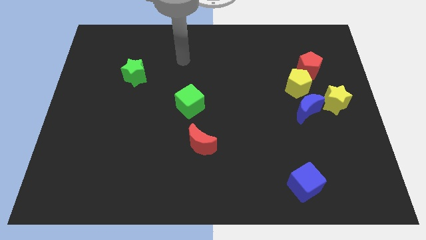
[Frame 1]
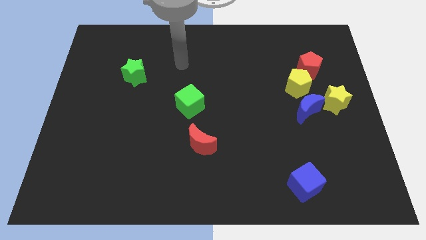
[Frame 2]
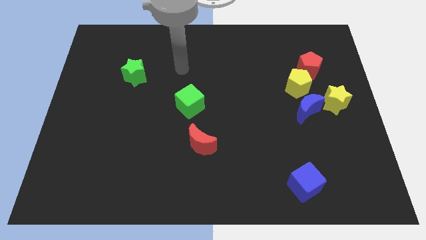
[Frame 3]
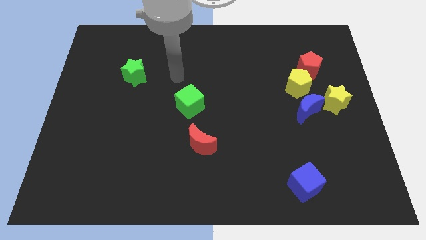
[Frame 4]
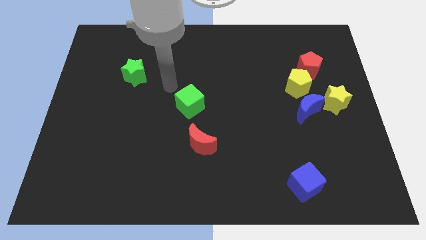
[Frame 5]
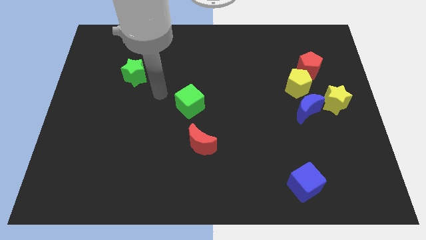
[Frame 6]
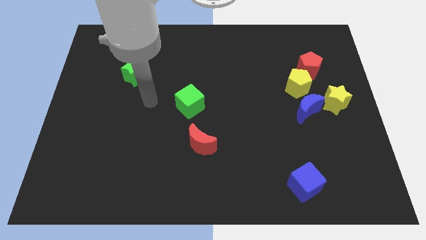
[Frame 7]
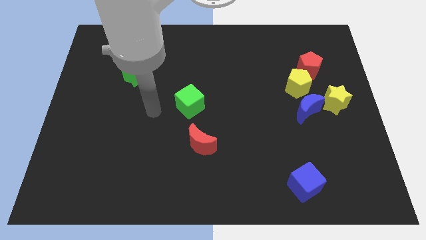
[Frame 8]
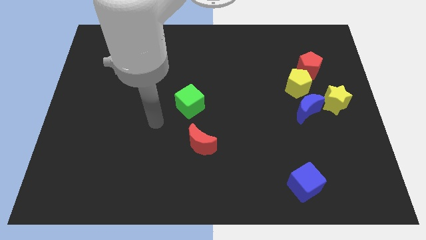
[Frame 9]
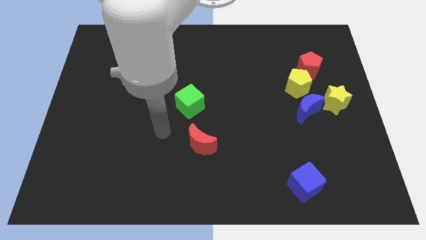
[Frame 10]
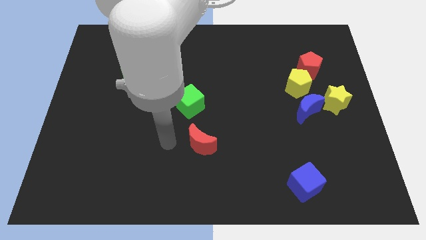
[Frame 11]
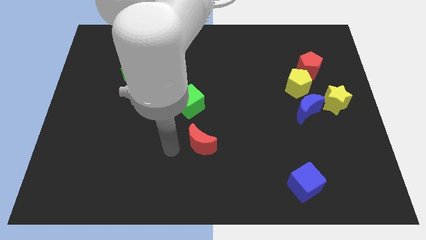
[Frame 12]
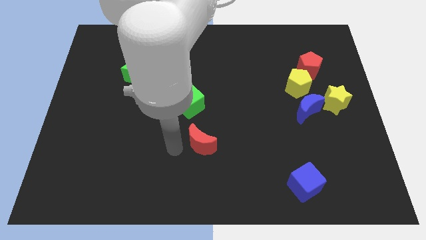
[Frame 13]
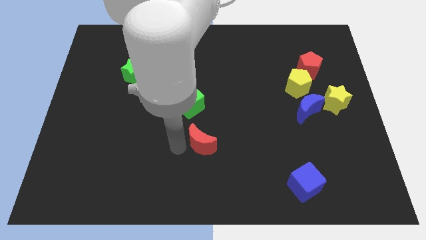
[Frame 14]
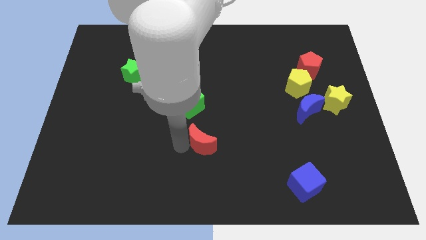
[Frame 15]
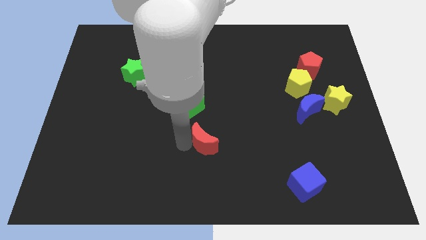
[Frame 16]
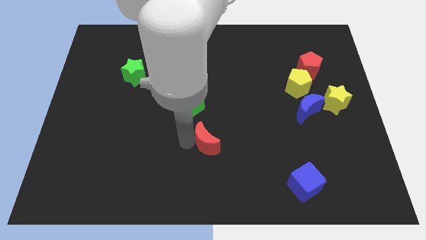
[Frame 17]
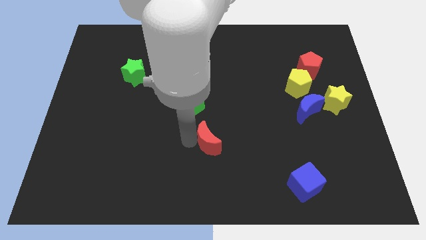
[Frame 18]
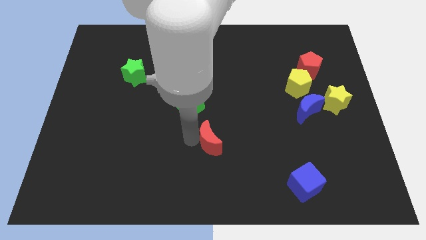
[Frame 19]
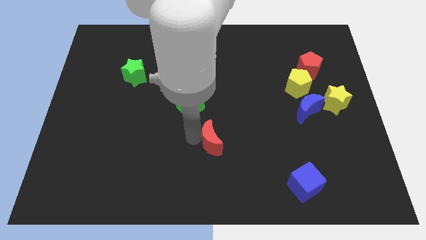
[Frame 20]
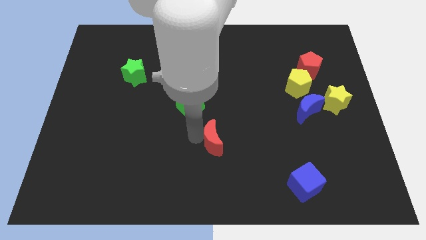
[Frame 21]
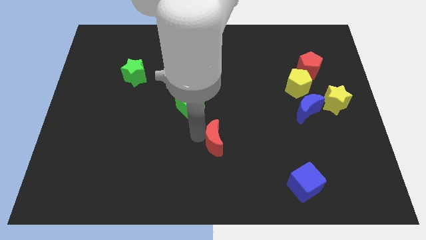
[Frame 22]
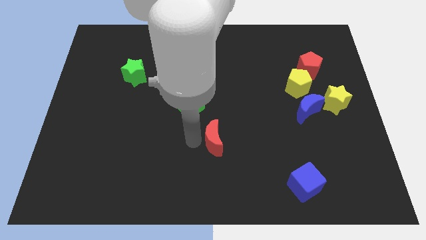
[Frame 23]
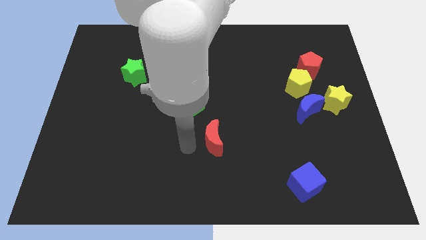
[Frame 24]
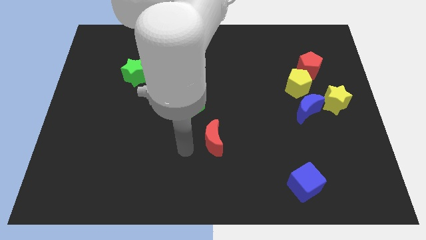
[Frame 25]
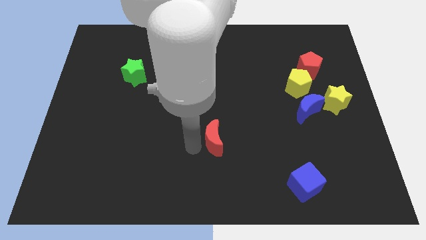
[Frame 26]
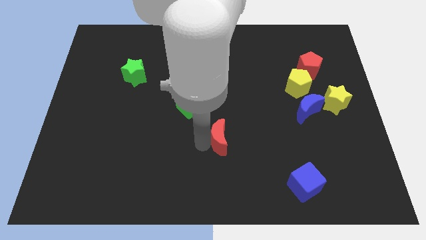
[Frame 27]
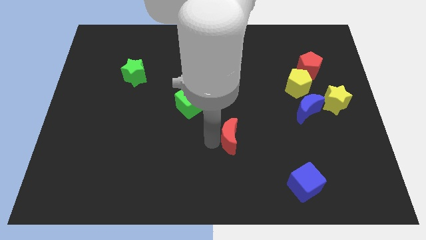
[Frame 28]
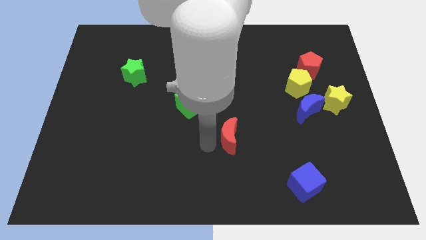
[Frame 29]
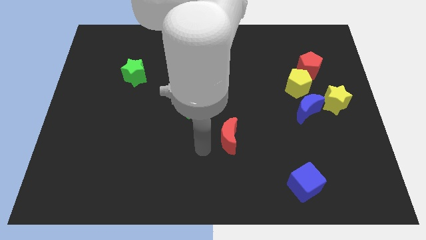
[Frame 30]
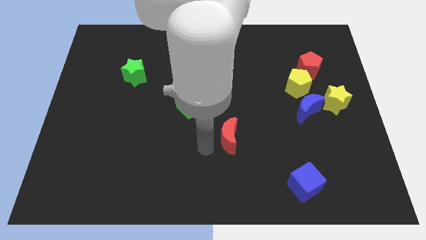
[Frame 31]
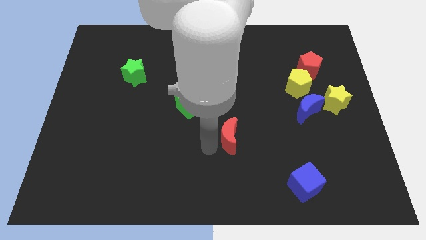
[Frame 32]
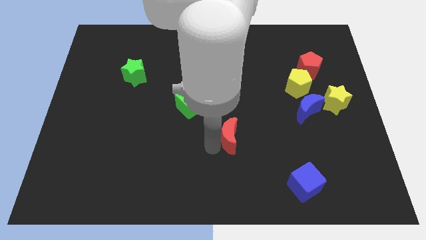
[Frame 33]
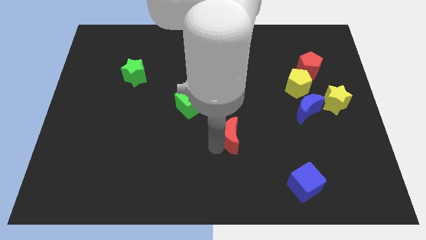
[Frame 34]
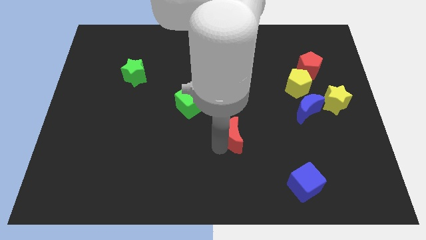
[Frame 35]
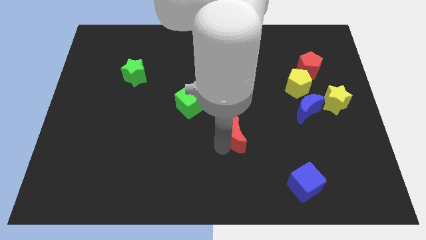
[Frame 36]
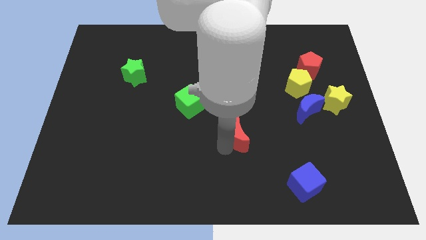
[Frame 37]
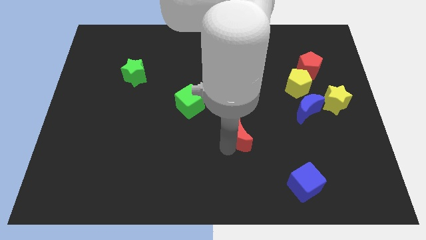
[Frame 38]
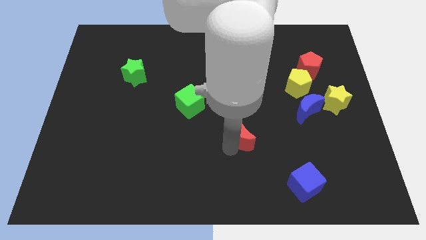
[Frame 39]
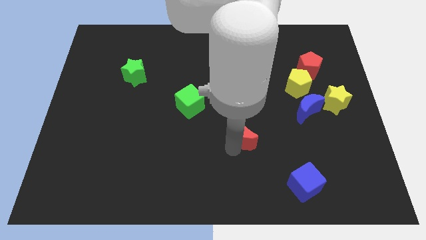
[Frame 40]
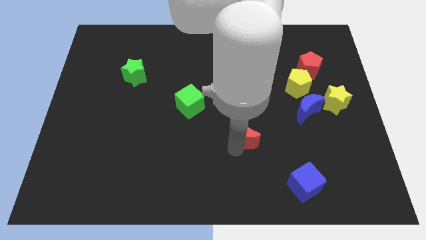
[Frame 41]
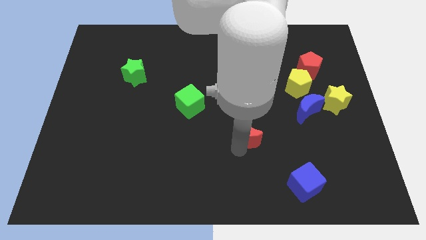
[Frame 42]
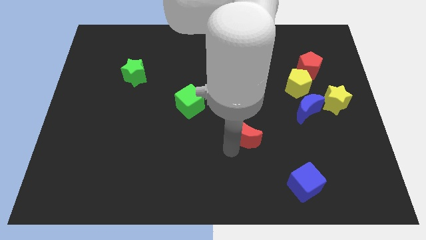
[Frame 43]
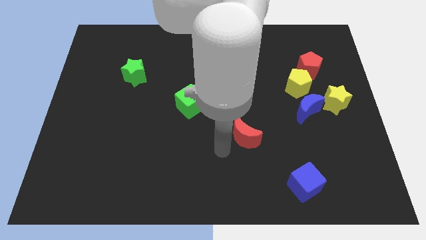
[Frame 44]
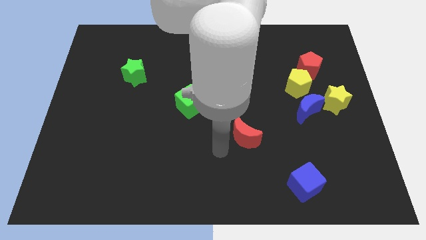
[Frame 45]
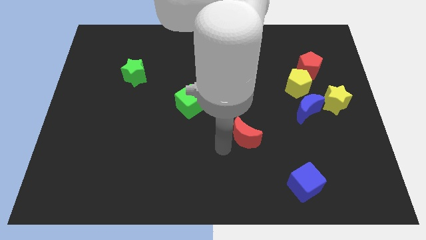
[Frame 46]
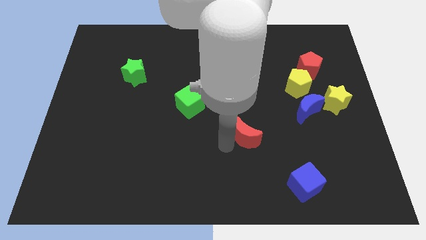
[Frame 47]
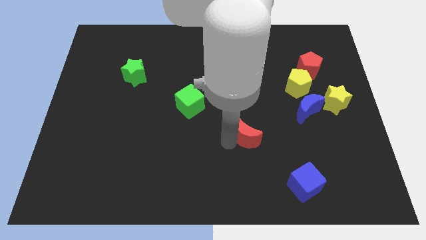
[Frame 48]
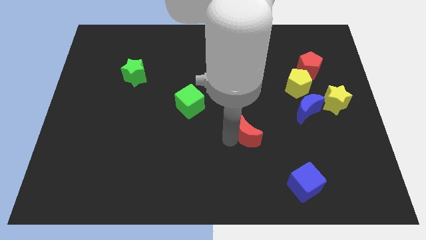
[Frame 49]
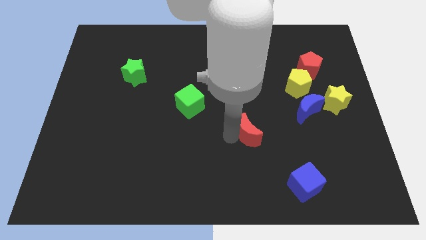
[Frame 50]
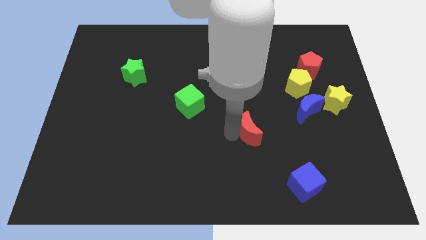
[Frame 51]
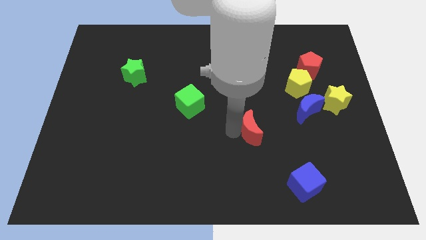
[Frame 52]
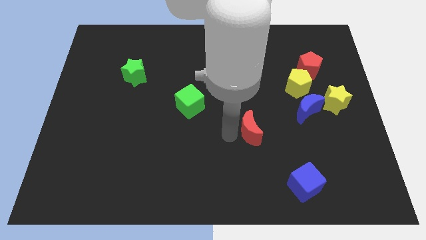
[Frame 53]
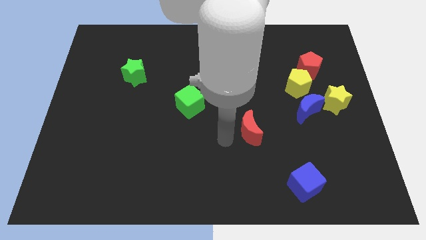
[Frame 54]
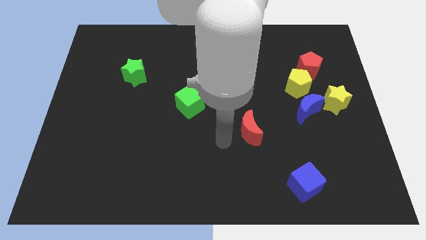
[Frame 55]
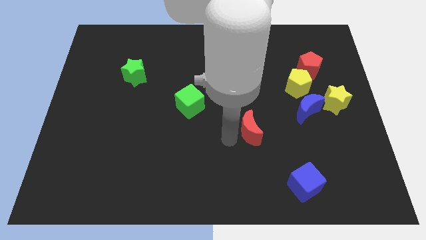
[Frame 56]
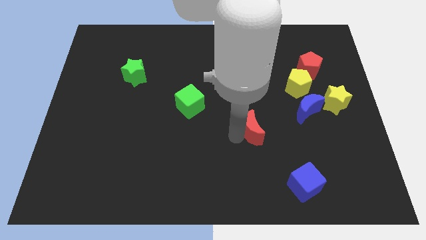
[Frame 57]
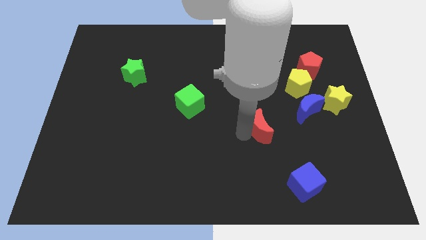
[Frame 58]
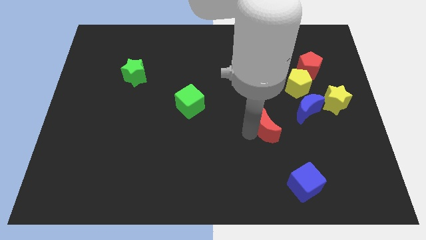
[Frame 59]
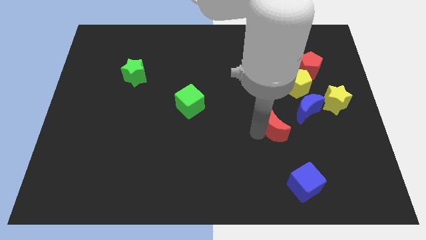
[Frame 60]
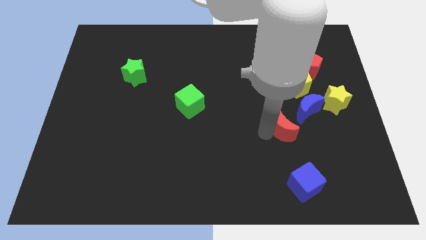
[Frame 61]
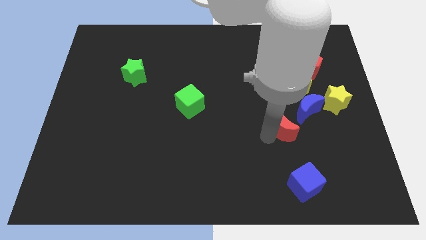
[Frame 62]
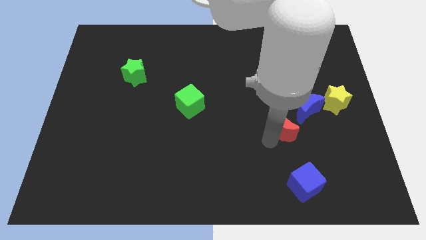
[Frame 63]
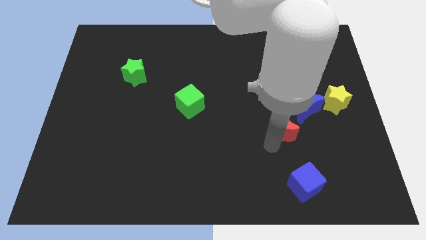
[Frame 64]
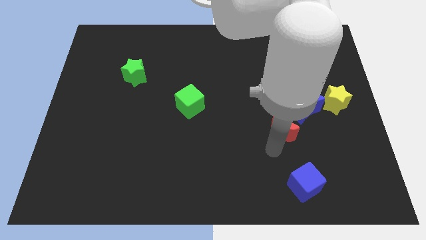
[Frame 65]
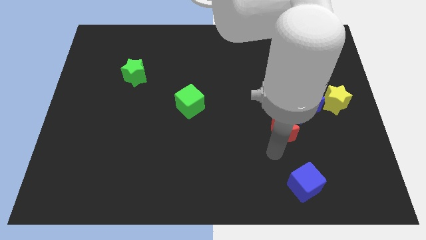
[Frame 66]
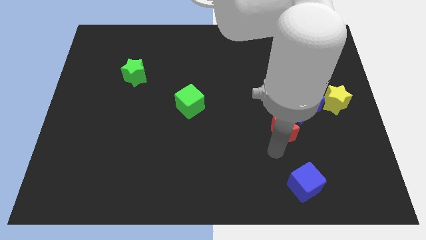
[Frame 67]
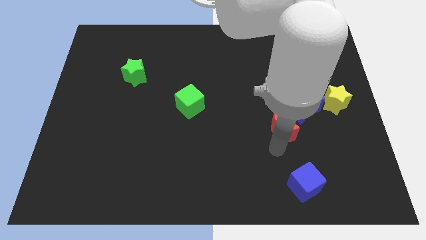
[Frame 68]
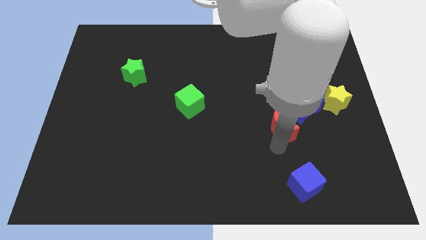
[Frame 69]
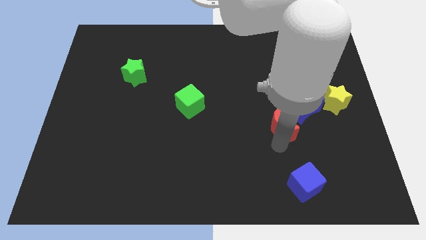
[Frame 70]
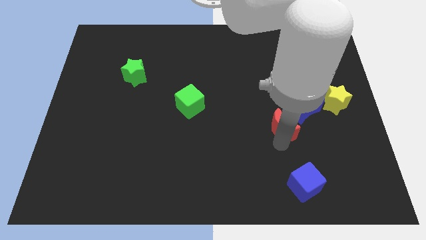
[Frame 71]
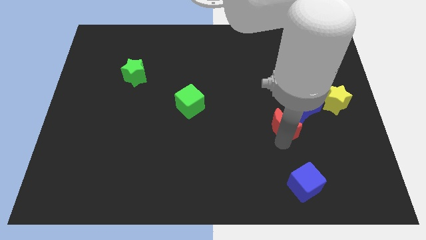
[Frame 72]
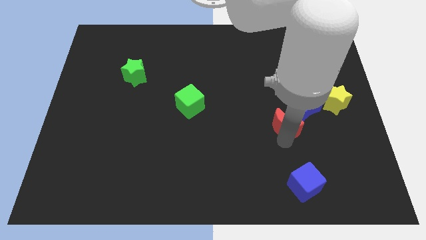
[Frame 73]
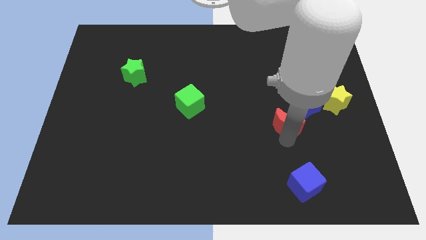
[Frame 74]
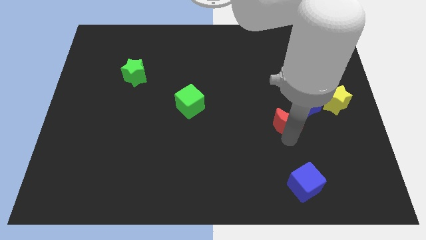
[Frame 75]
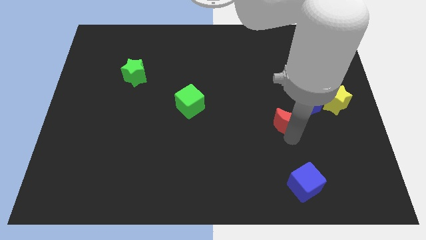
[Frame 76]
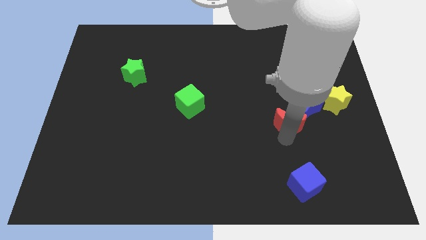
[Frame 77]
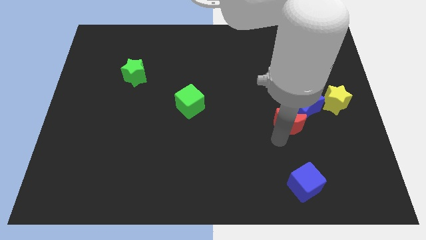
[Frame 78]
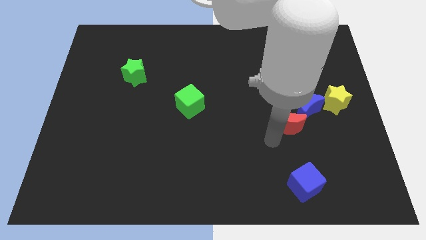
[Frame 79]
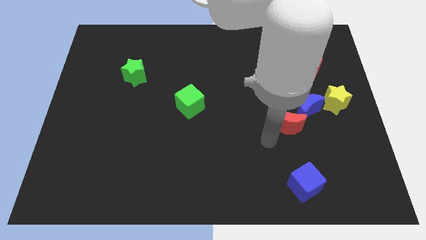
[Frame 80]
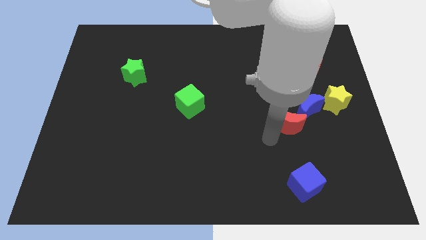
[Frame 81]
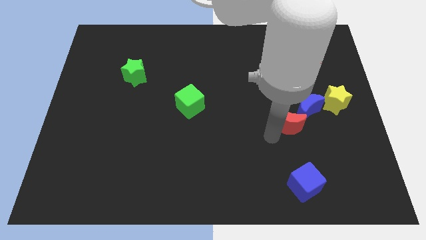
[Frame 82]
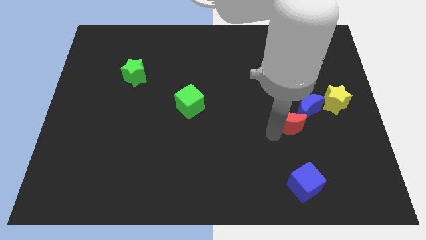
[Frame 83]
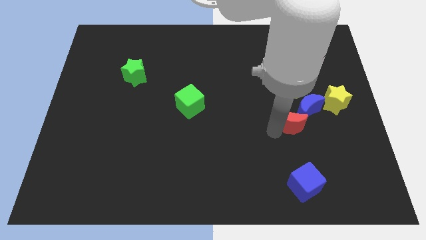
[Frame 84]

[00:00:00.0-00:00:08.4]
put the red moon close to the blue moon
